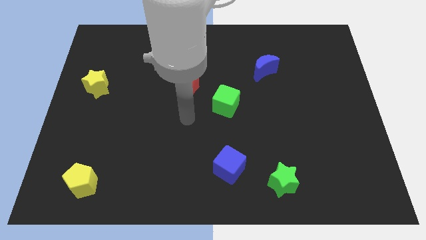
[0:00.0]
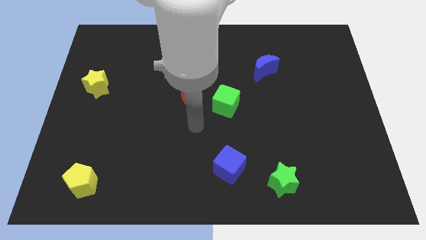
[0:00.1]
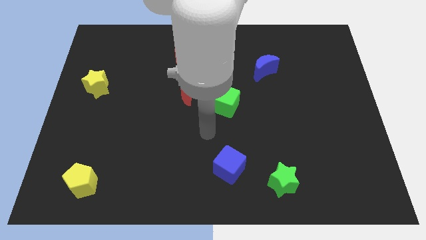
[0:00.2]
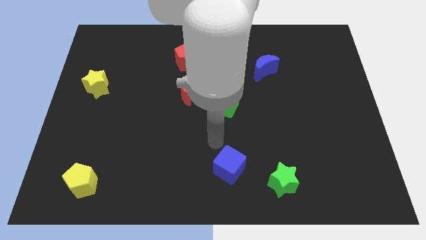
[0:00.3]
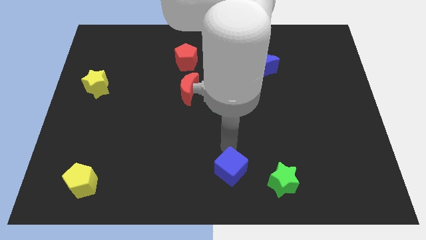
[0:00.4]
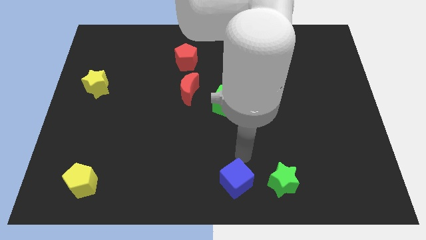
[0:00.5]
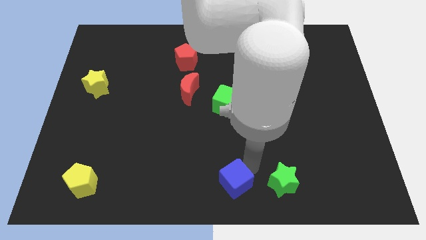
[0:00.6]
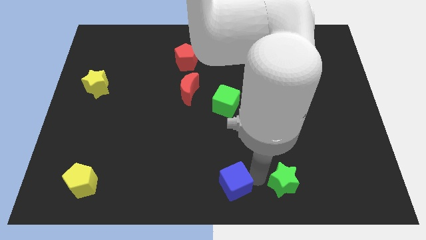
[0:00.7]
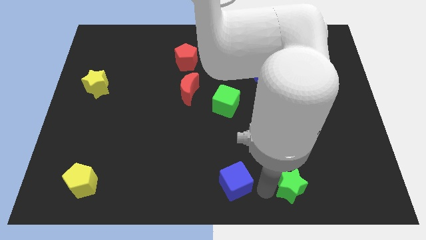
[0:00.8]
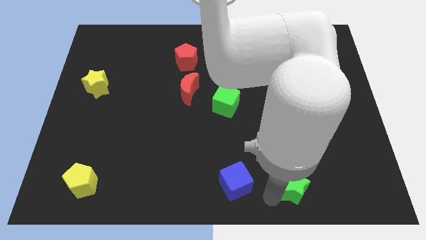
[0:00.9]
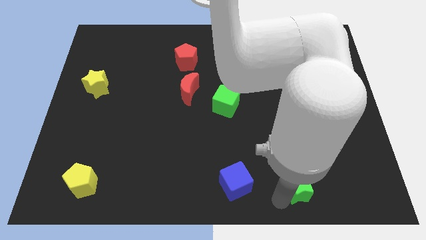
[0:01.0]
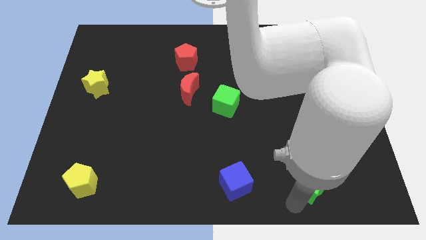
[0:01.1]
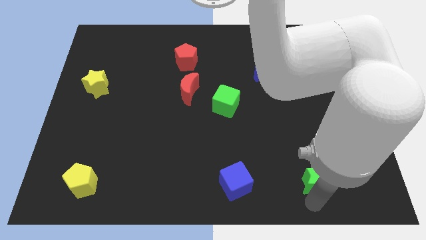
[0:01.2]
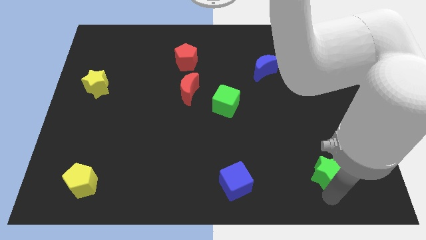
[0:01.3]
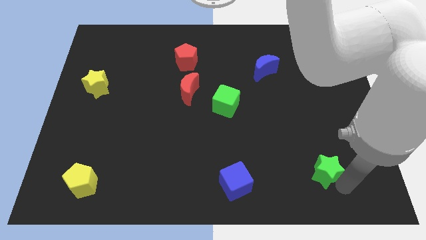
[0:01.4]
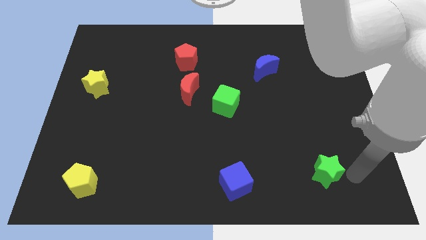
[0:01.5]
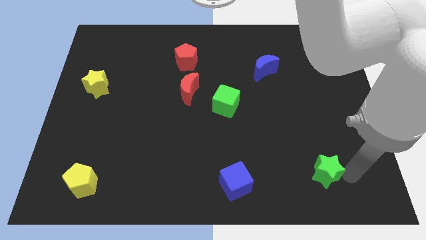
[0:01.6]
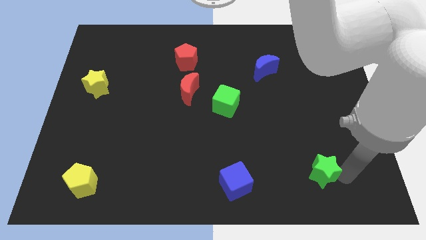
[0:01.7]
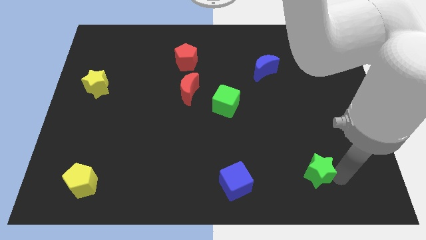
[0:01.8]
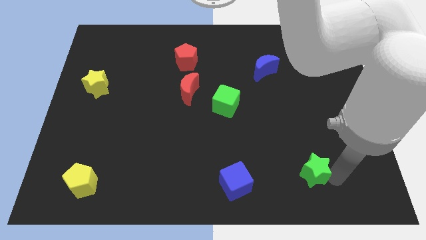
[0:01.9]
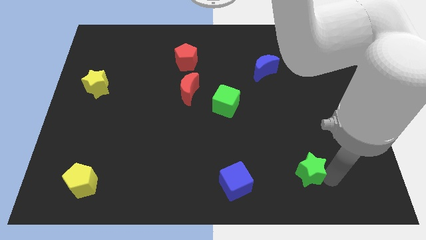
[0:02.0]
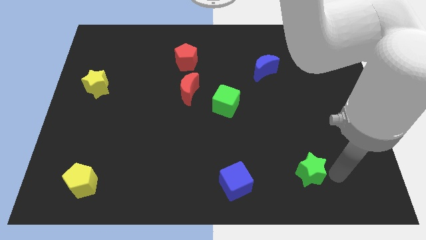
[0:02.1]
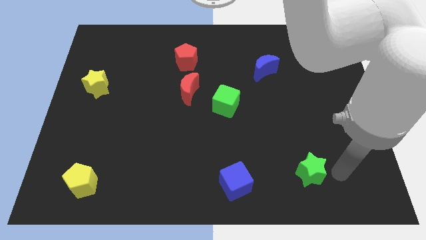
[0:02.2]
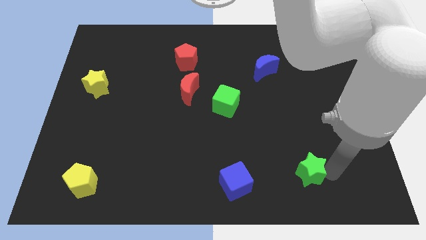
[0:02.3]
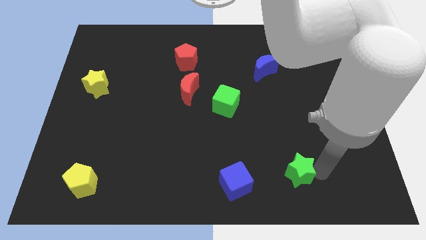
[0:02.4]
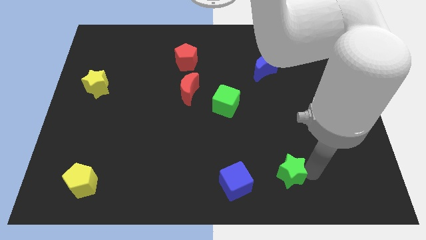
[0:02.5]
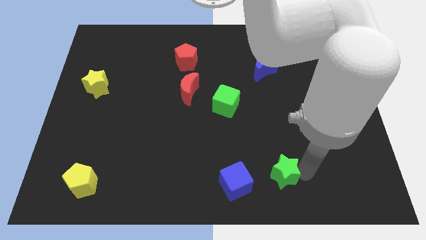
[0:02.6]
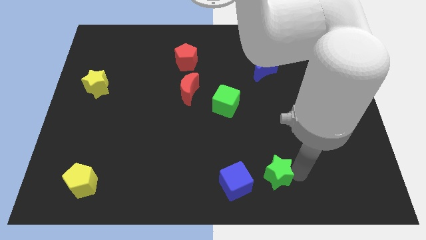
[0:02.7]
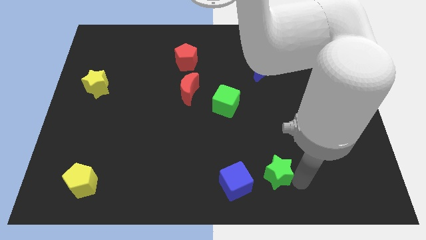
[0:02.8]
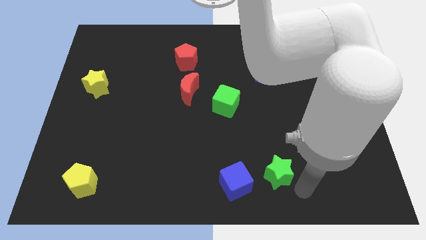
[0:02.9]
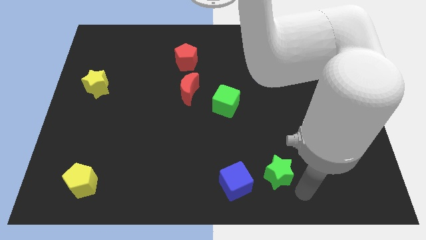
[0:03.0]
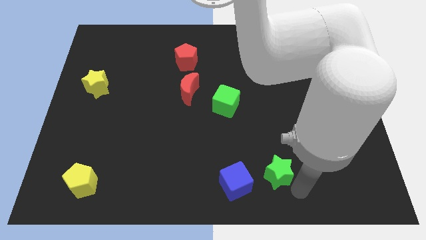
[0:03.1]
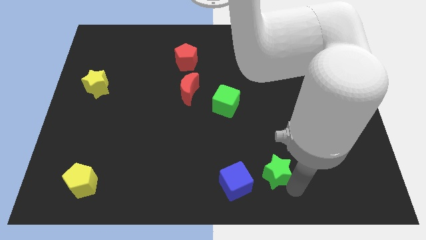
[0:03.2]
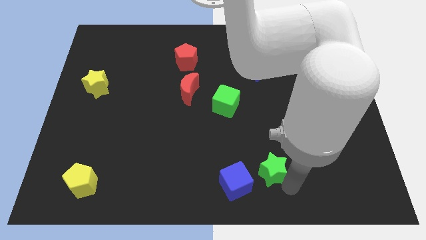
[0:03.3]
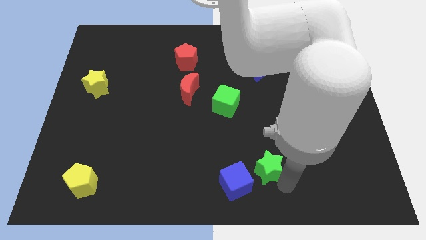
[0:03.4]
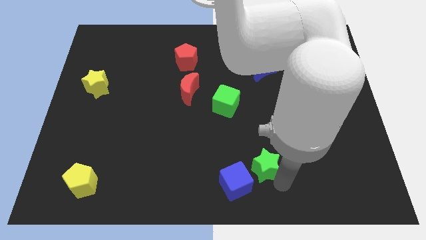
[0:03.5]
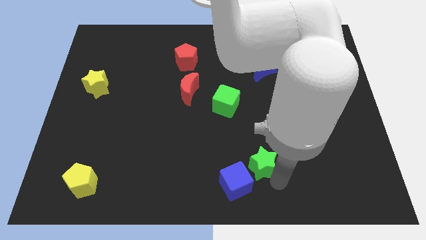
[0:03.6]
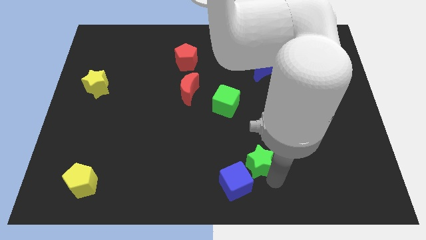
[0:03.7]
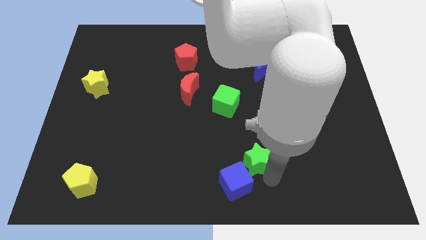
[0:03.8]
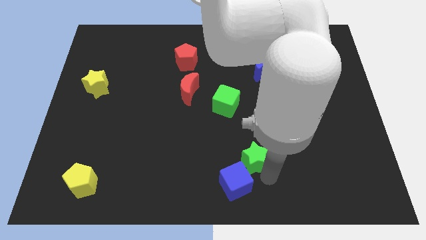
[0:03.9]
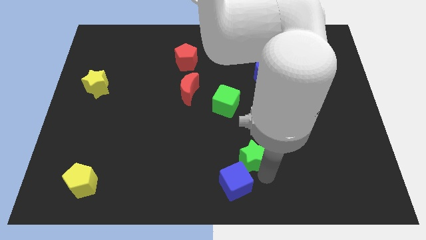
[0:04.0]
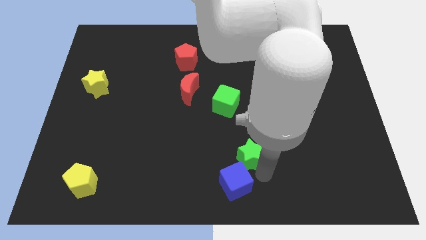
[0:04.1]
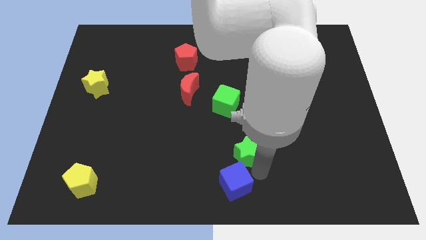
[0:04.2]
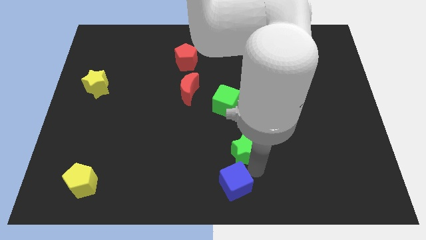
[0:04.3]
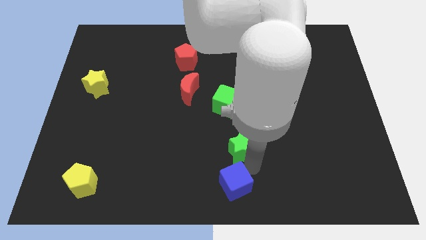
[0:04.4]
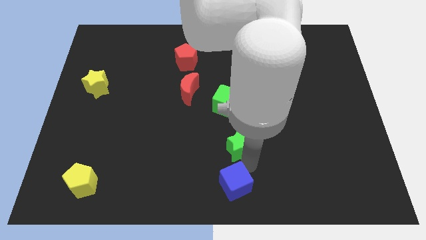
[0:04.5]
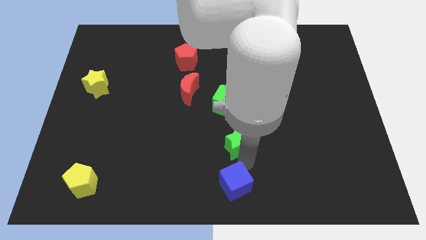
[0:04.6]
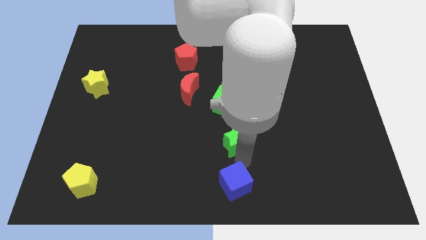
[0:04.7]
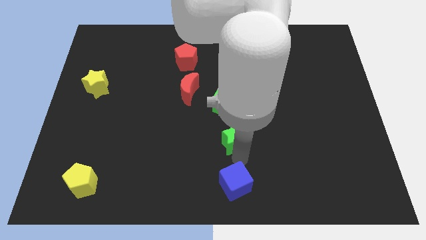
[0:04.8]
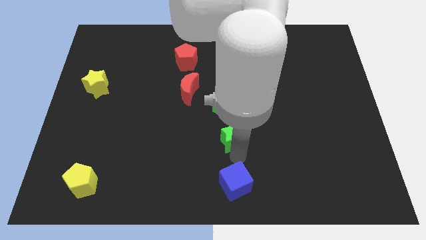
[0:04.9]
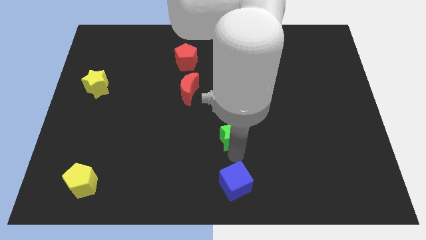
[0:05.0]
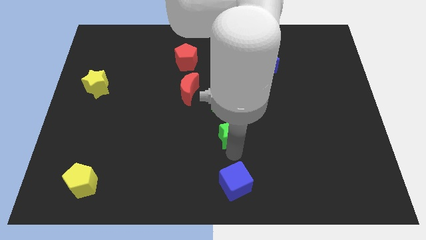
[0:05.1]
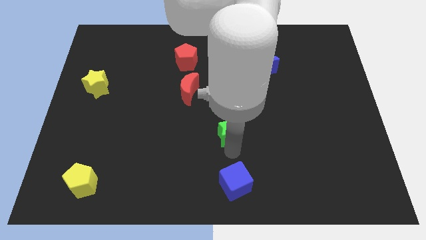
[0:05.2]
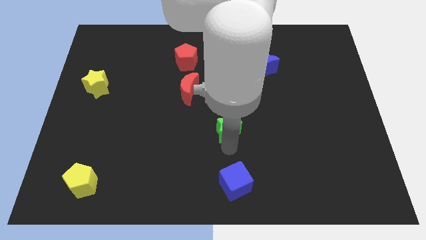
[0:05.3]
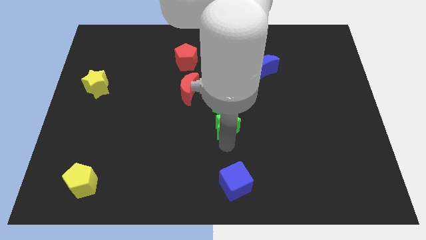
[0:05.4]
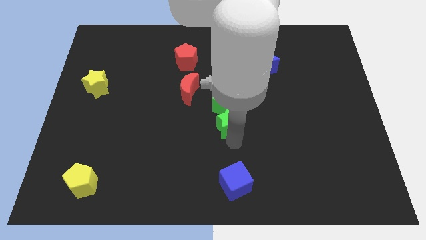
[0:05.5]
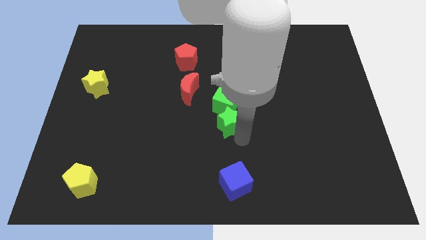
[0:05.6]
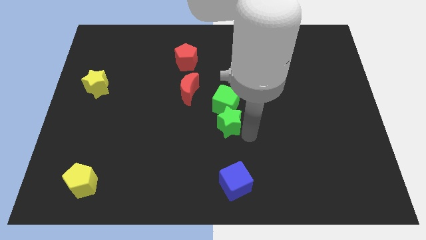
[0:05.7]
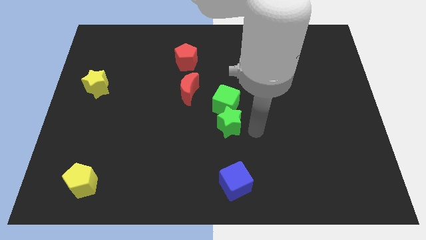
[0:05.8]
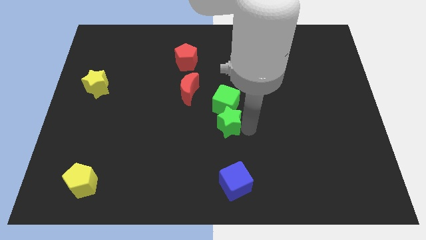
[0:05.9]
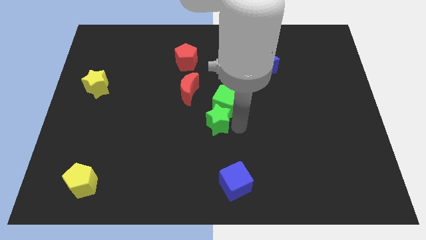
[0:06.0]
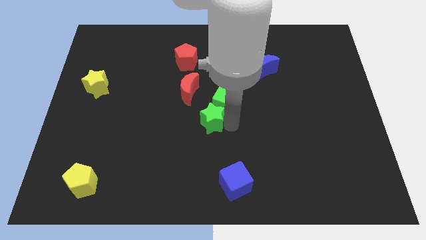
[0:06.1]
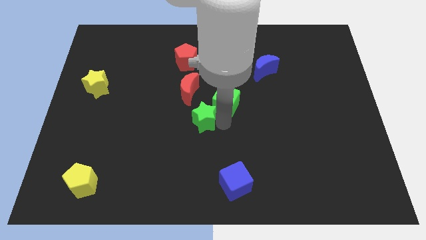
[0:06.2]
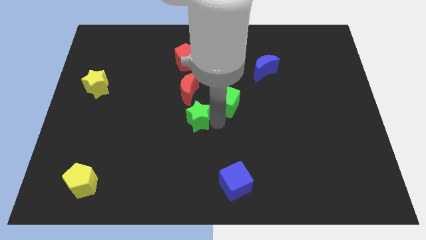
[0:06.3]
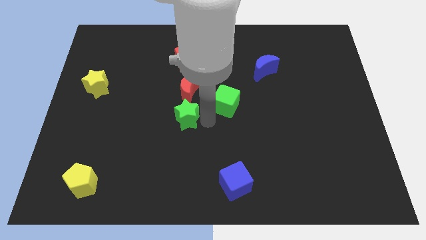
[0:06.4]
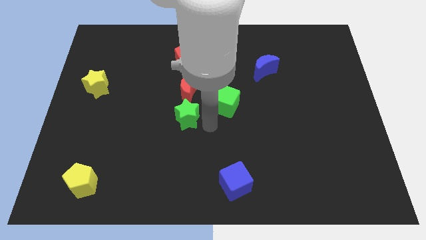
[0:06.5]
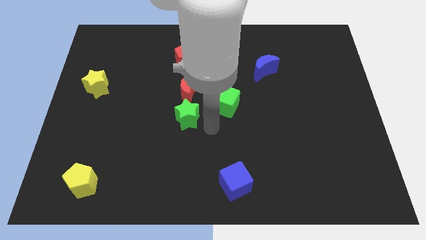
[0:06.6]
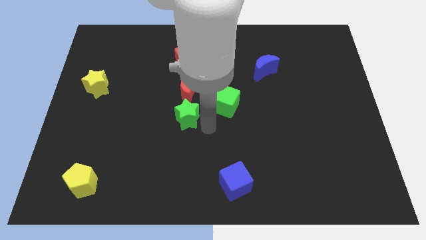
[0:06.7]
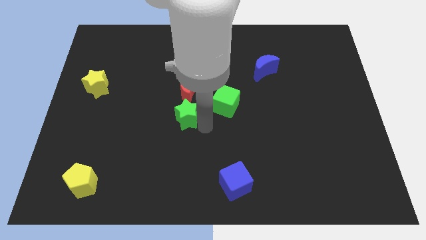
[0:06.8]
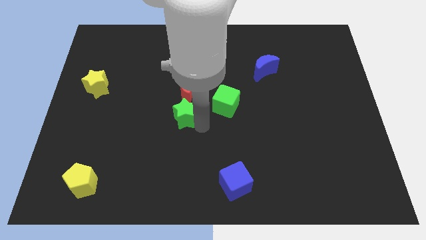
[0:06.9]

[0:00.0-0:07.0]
move the green star diagonally down and to the left of the red moon
